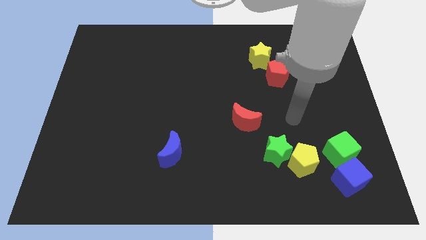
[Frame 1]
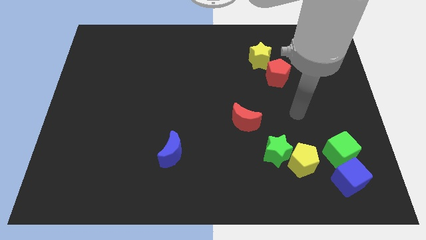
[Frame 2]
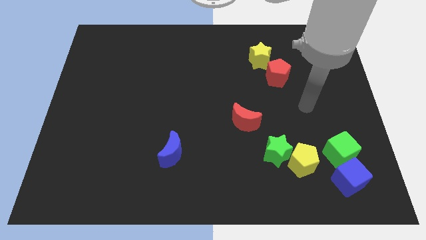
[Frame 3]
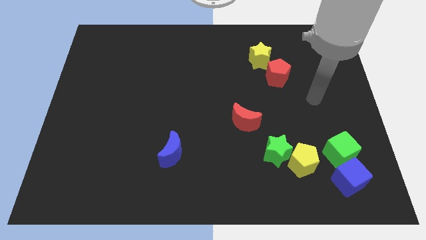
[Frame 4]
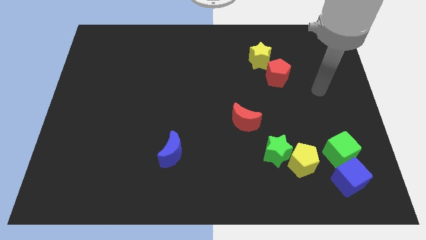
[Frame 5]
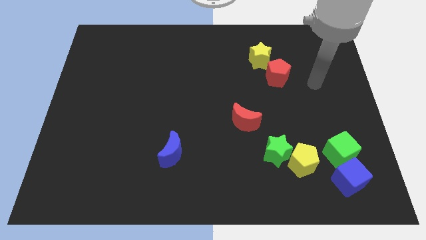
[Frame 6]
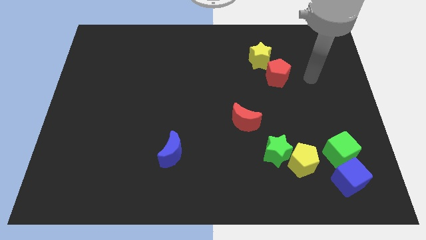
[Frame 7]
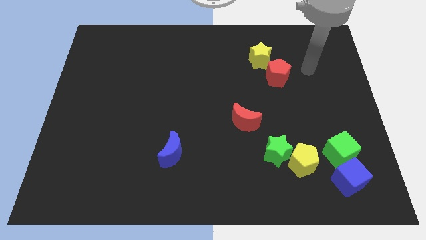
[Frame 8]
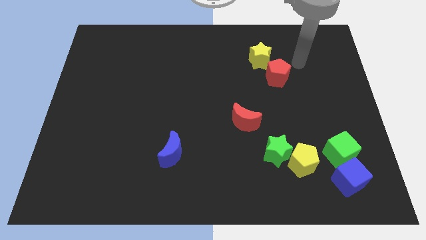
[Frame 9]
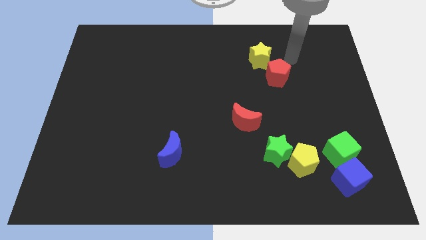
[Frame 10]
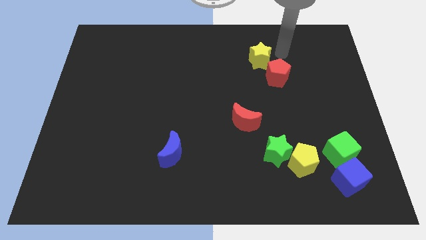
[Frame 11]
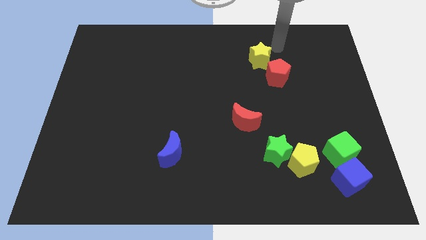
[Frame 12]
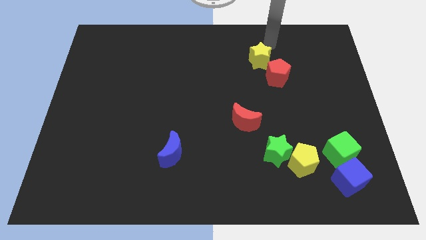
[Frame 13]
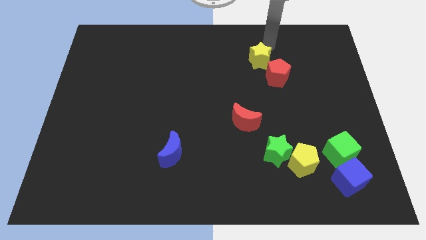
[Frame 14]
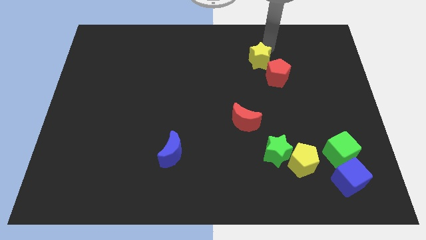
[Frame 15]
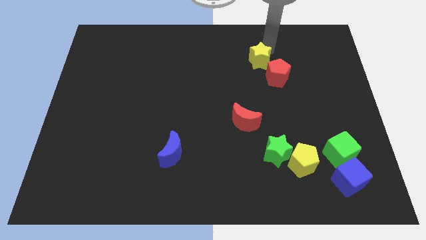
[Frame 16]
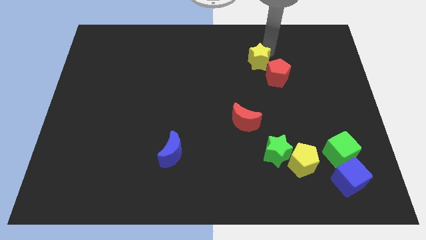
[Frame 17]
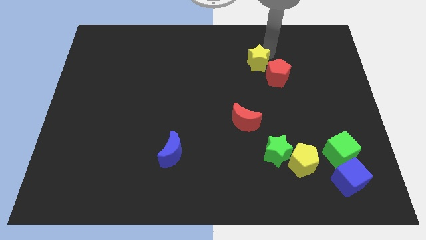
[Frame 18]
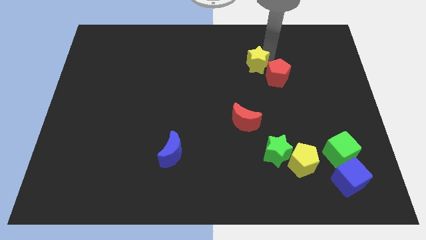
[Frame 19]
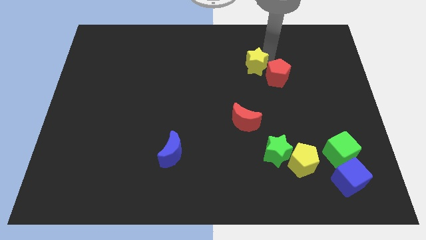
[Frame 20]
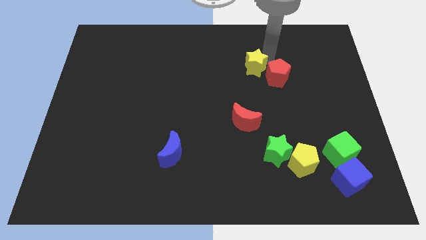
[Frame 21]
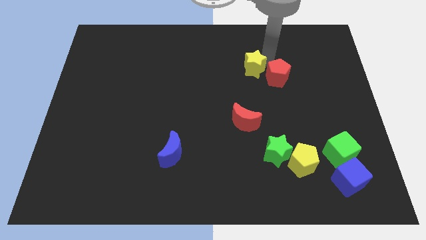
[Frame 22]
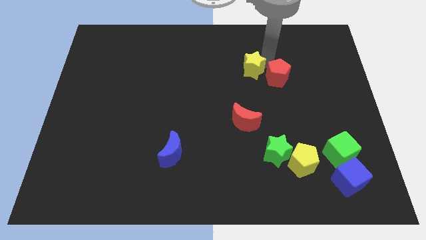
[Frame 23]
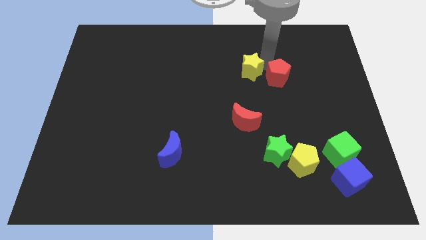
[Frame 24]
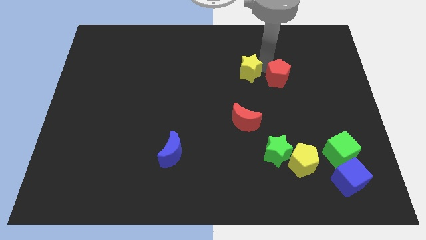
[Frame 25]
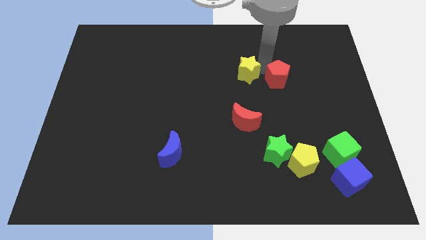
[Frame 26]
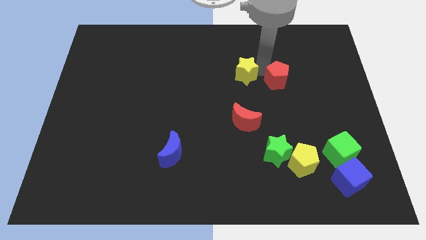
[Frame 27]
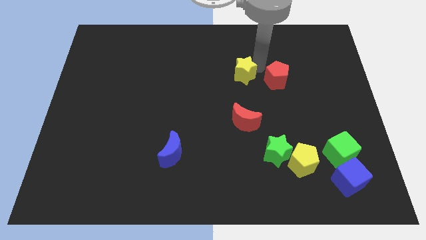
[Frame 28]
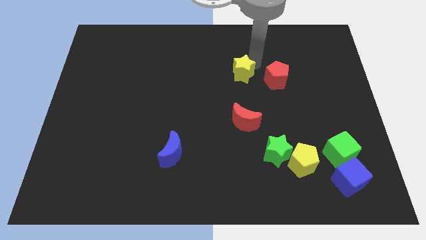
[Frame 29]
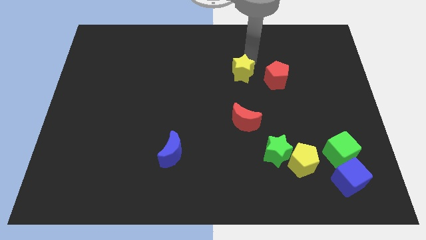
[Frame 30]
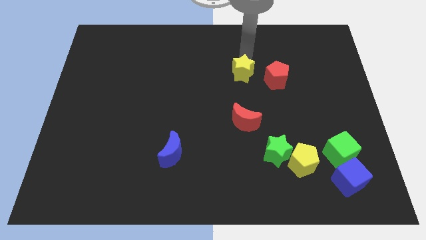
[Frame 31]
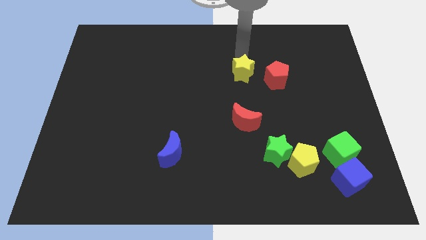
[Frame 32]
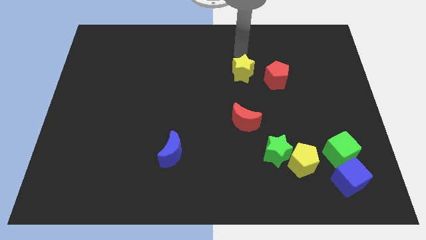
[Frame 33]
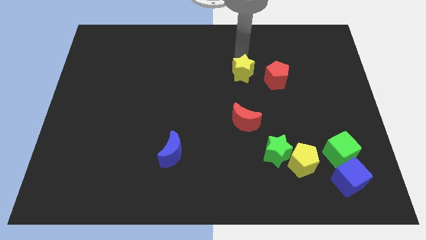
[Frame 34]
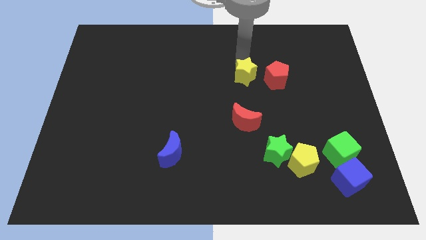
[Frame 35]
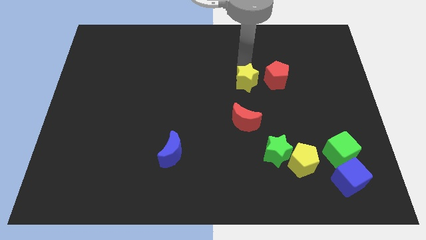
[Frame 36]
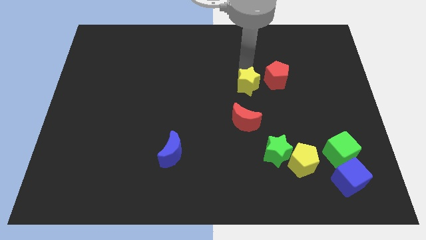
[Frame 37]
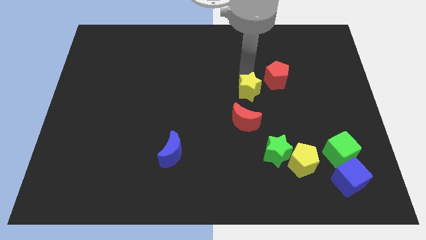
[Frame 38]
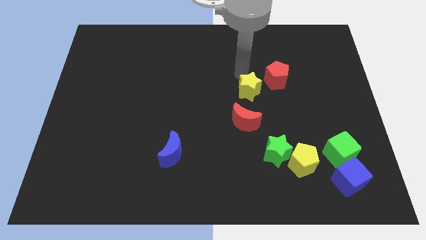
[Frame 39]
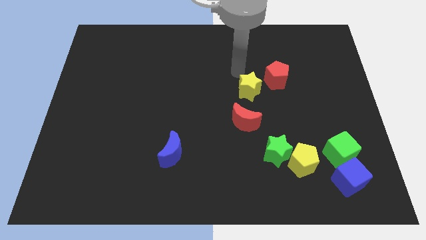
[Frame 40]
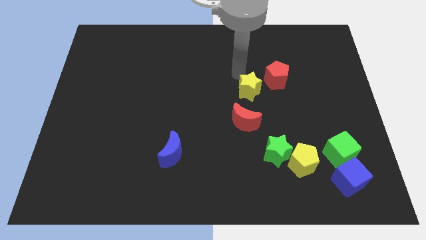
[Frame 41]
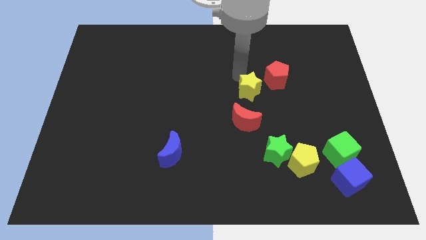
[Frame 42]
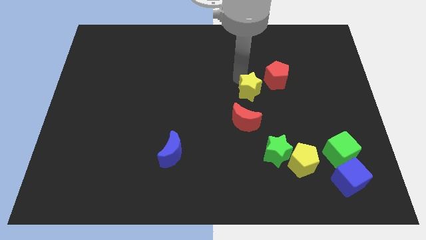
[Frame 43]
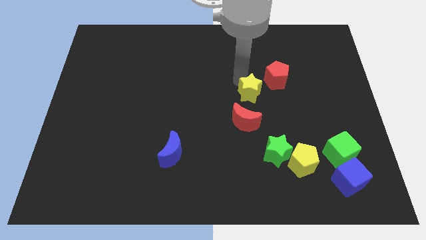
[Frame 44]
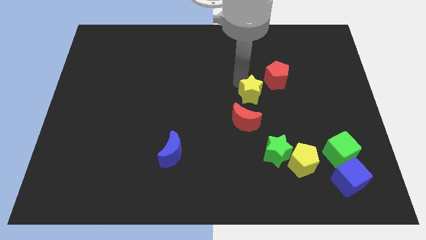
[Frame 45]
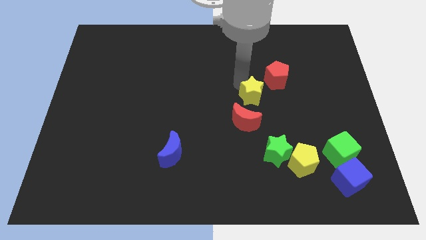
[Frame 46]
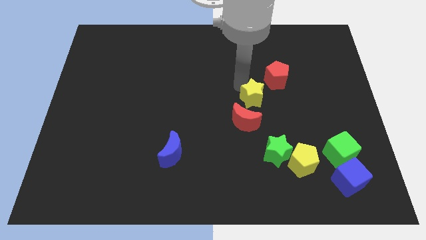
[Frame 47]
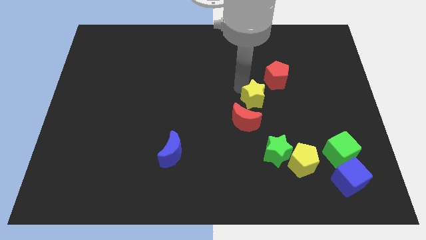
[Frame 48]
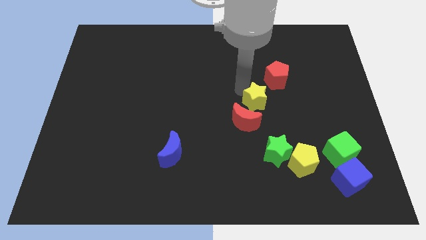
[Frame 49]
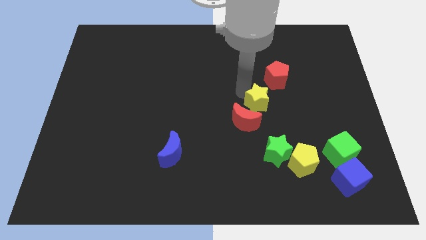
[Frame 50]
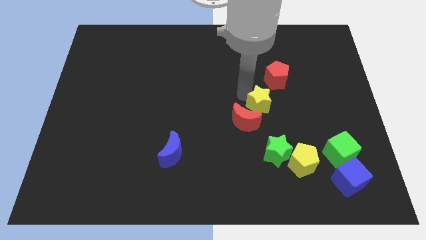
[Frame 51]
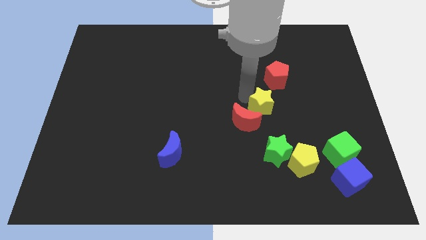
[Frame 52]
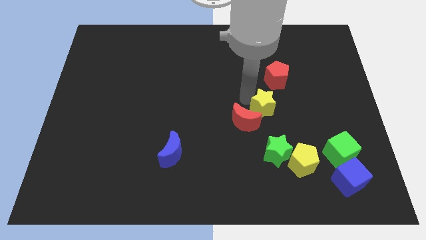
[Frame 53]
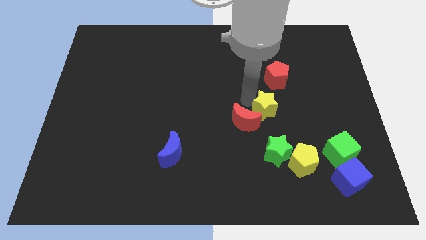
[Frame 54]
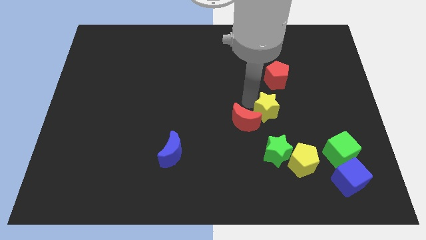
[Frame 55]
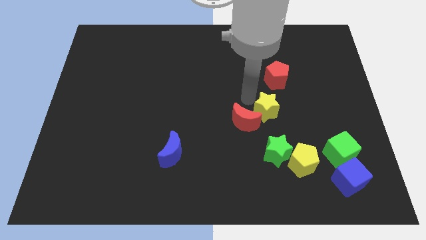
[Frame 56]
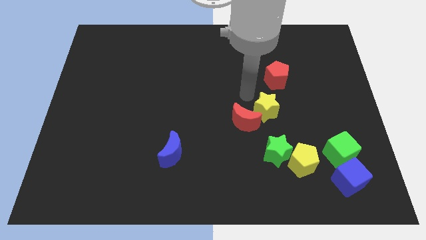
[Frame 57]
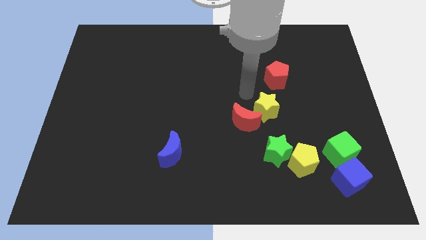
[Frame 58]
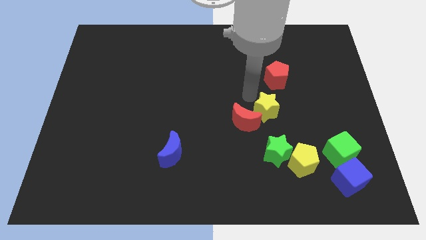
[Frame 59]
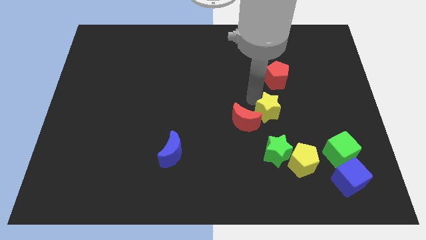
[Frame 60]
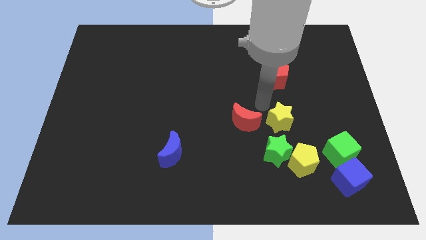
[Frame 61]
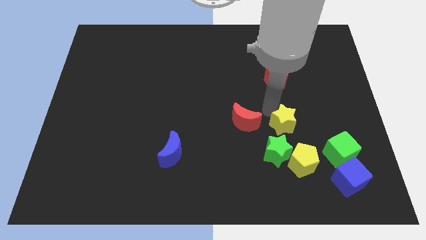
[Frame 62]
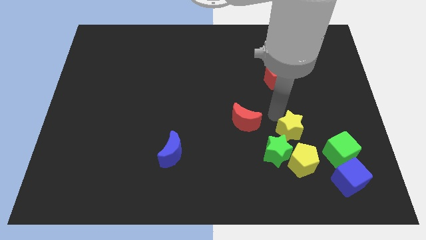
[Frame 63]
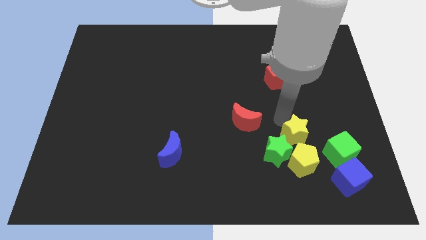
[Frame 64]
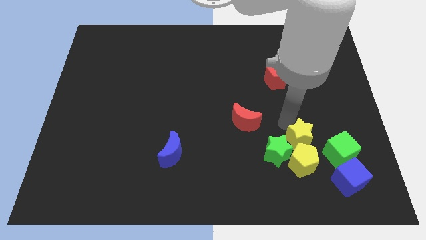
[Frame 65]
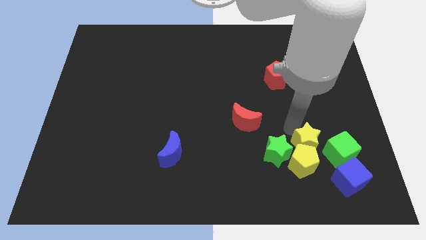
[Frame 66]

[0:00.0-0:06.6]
slide the yellow star diagonally up and to the left of the blue cube
